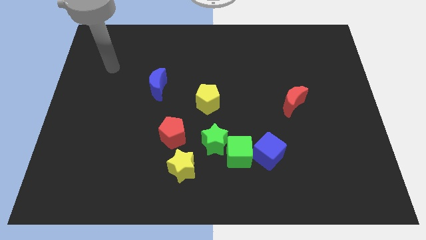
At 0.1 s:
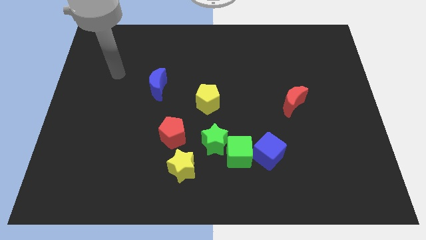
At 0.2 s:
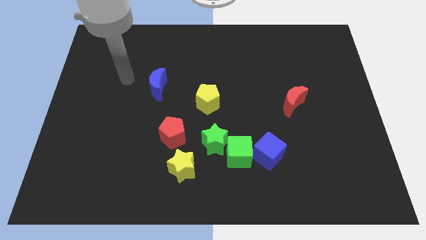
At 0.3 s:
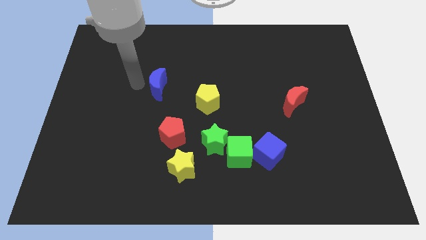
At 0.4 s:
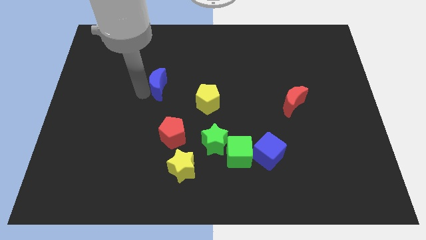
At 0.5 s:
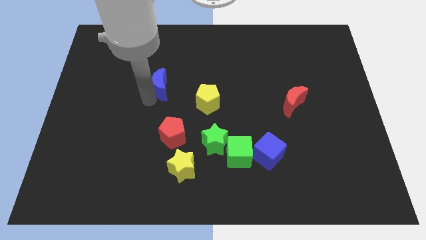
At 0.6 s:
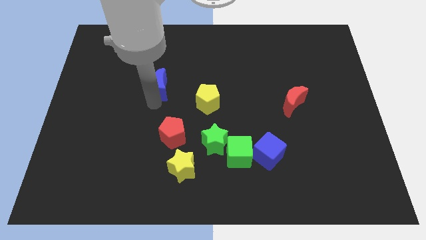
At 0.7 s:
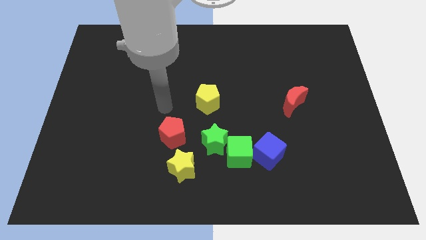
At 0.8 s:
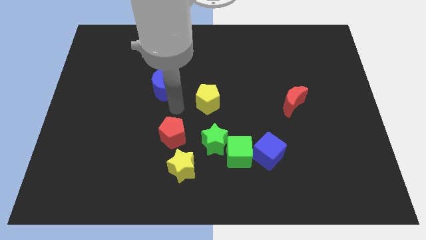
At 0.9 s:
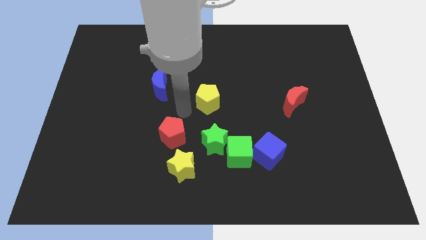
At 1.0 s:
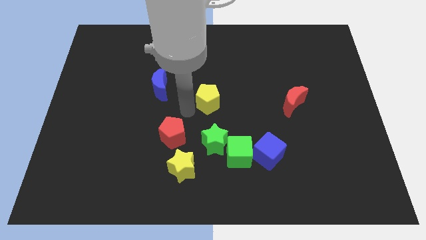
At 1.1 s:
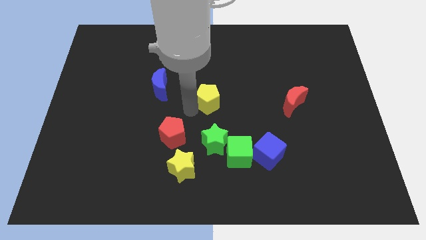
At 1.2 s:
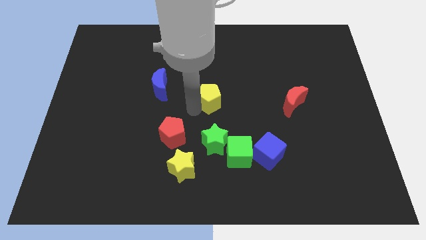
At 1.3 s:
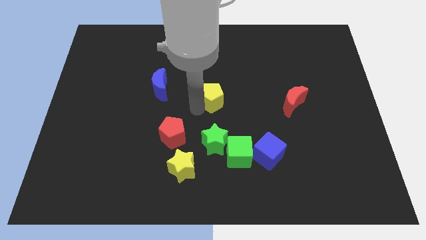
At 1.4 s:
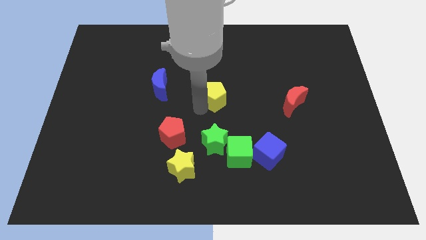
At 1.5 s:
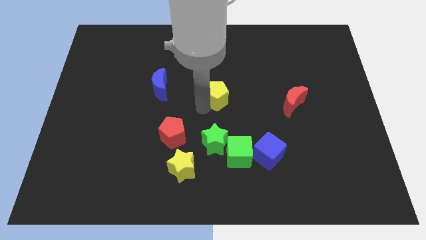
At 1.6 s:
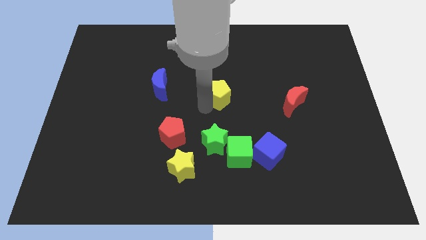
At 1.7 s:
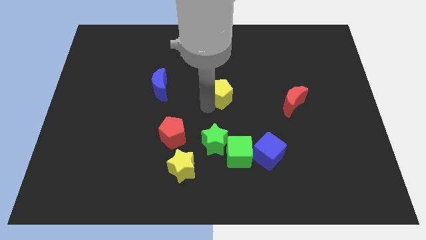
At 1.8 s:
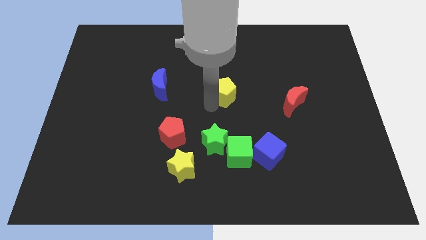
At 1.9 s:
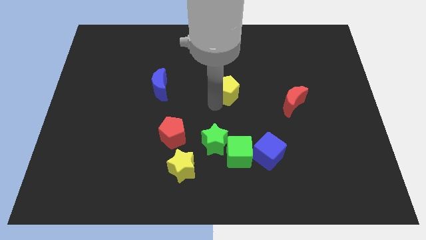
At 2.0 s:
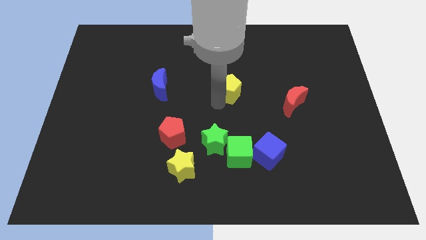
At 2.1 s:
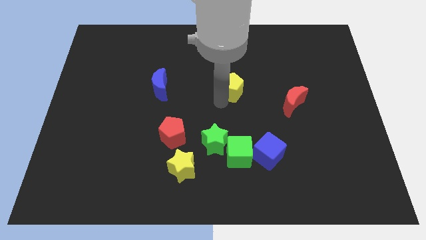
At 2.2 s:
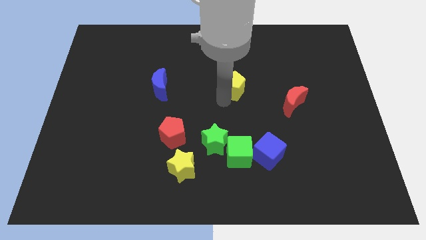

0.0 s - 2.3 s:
slightly push the yellow pentagon up and then right

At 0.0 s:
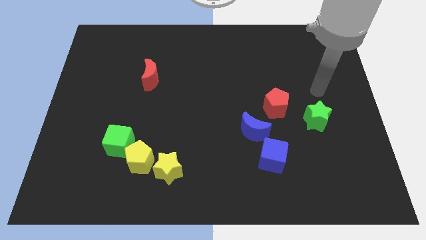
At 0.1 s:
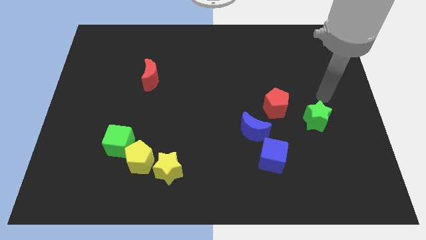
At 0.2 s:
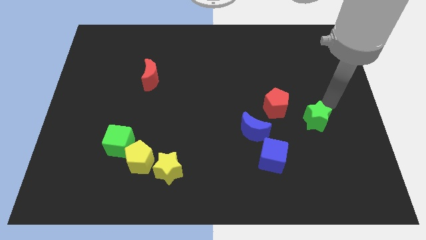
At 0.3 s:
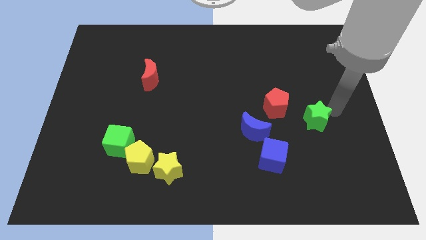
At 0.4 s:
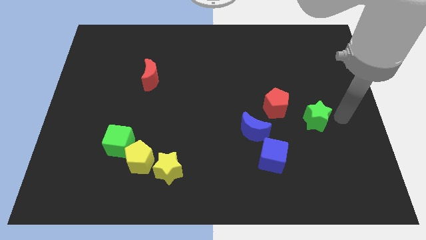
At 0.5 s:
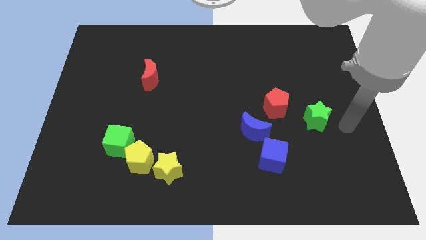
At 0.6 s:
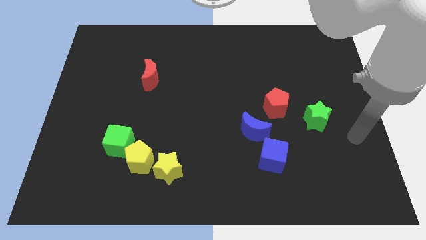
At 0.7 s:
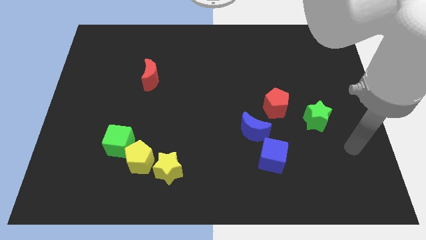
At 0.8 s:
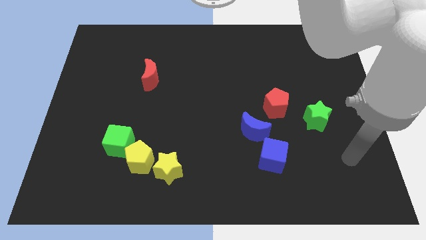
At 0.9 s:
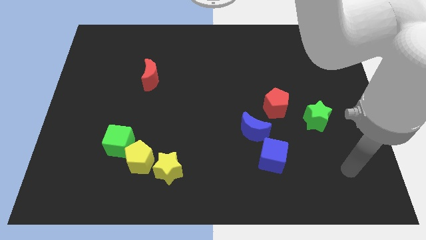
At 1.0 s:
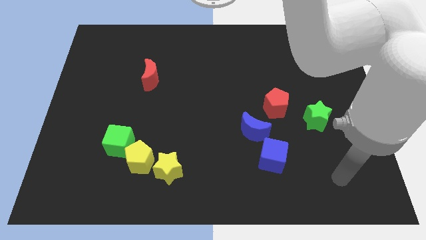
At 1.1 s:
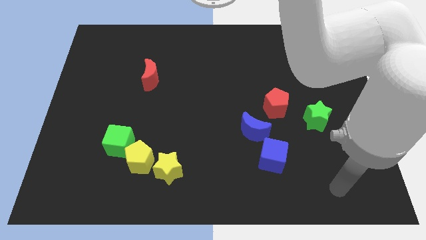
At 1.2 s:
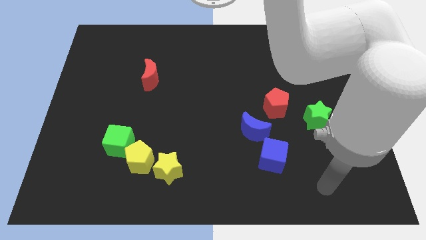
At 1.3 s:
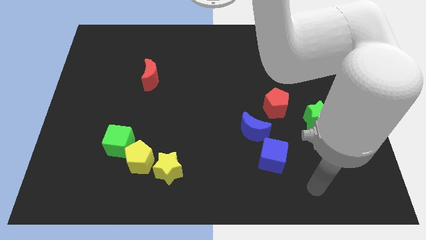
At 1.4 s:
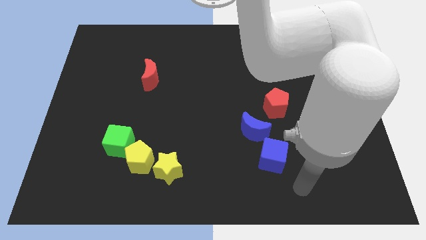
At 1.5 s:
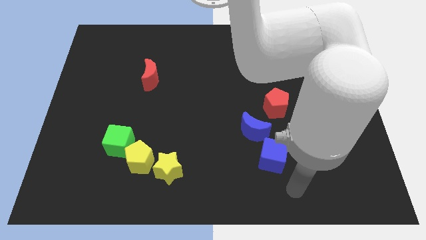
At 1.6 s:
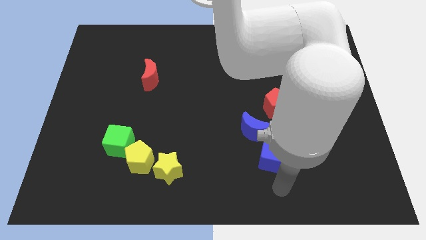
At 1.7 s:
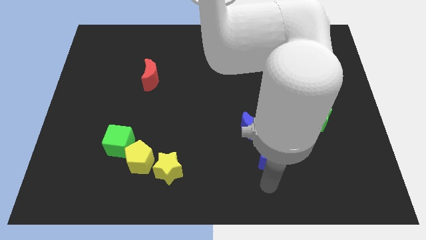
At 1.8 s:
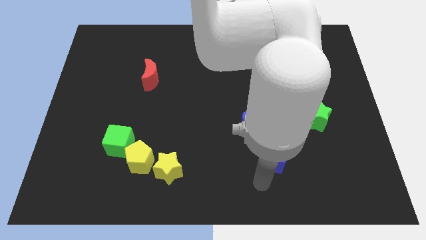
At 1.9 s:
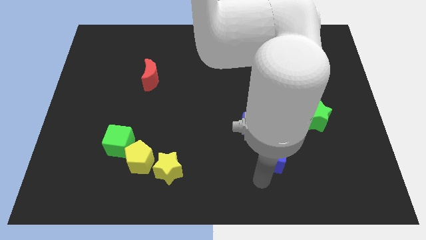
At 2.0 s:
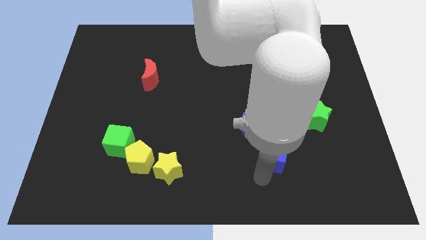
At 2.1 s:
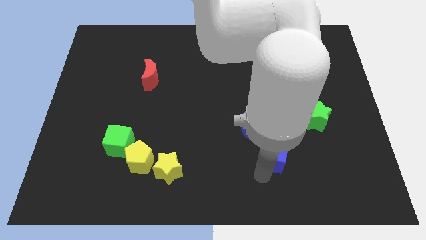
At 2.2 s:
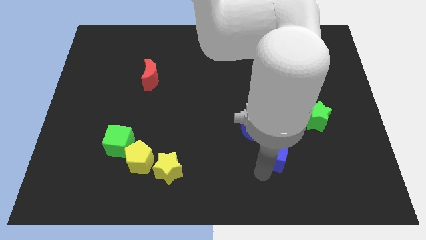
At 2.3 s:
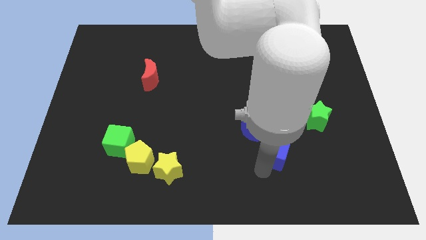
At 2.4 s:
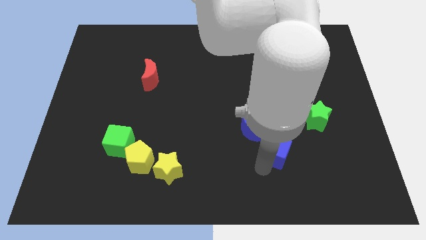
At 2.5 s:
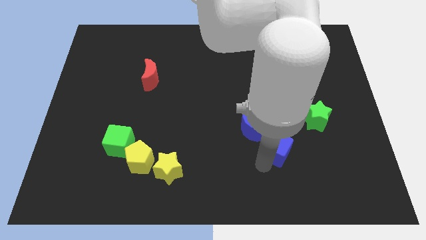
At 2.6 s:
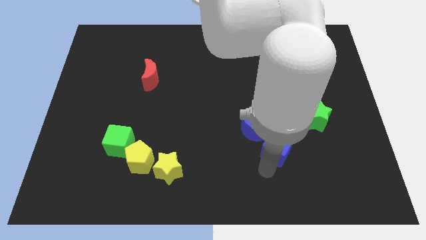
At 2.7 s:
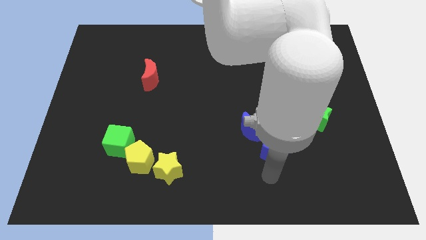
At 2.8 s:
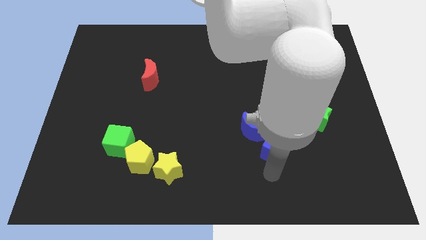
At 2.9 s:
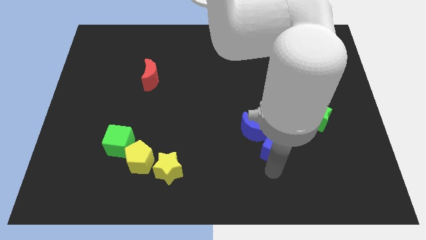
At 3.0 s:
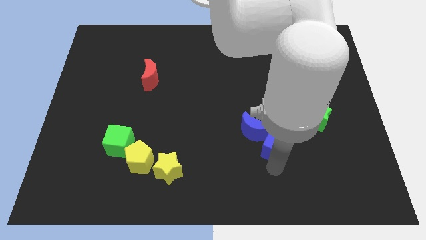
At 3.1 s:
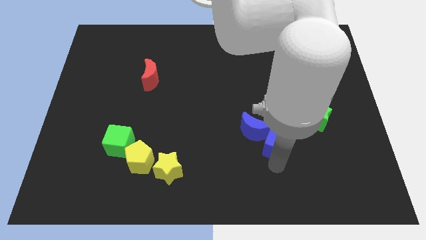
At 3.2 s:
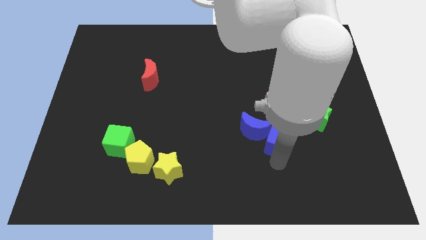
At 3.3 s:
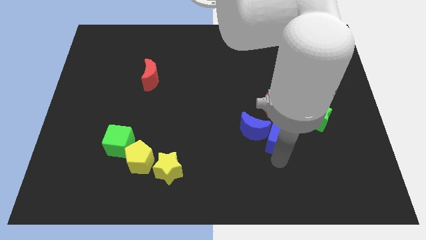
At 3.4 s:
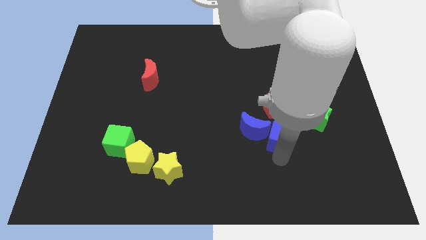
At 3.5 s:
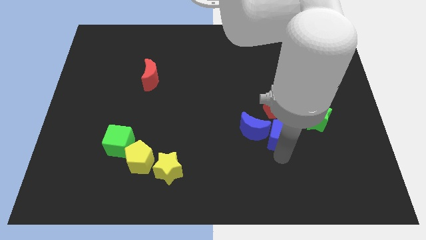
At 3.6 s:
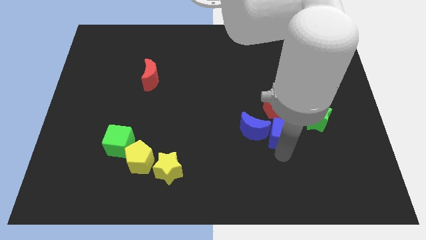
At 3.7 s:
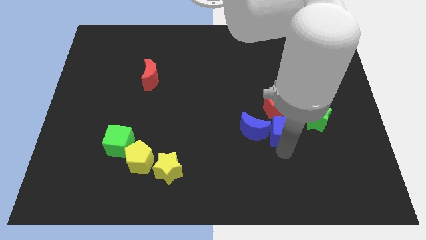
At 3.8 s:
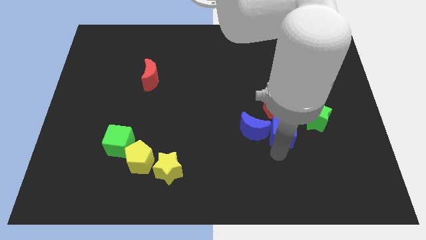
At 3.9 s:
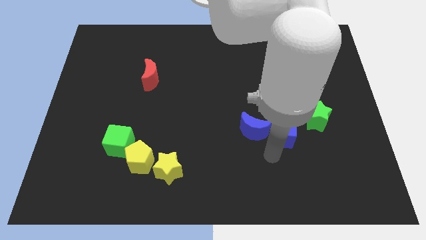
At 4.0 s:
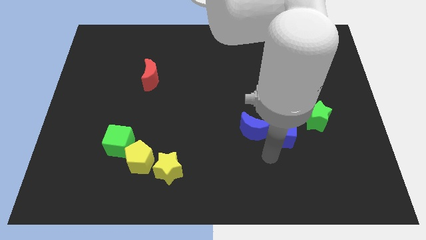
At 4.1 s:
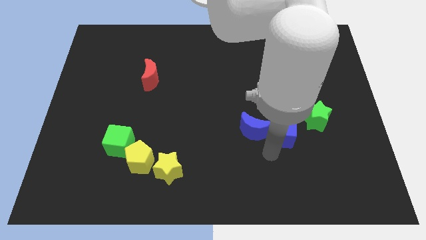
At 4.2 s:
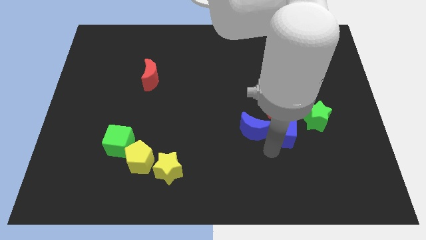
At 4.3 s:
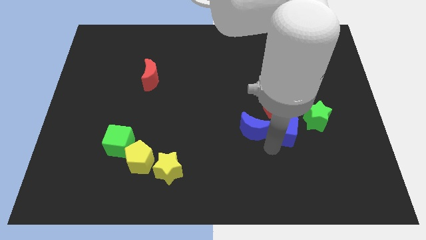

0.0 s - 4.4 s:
slide the blue cube somewhat up and then right

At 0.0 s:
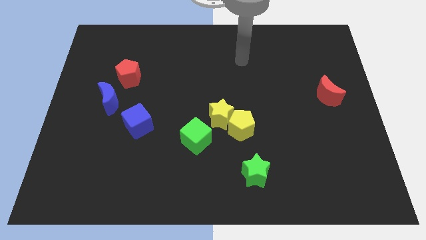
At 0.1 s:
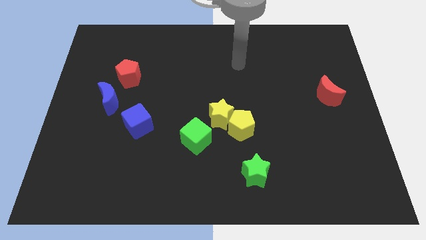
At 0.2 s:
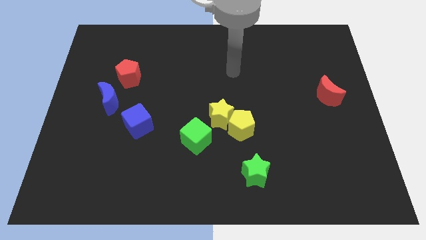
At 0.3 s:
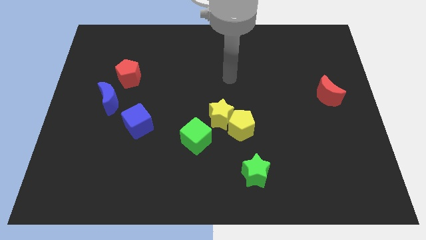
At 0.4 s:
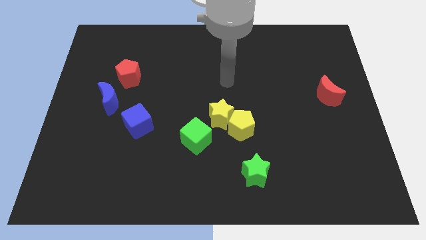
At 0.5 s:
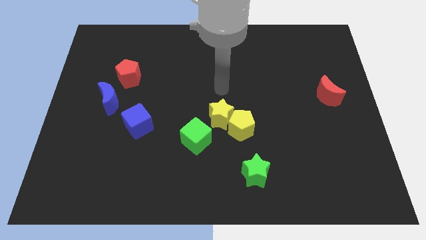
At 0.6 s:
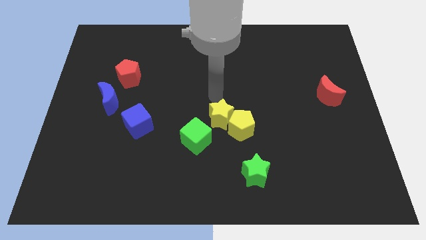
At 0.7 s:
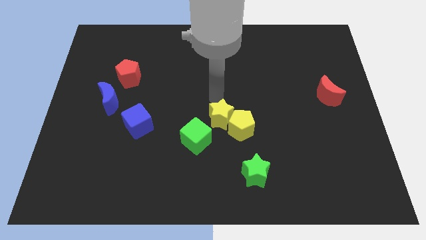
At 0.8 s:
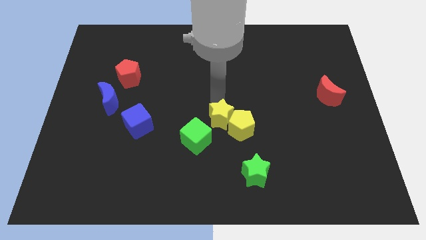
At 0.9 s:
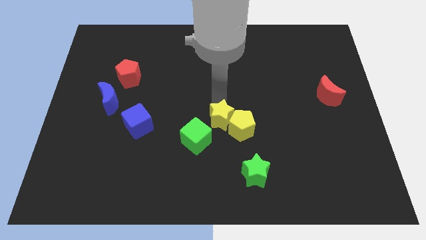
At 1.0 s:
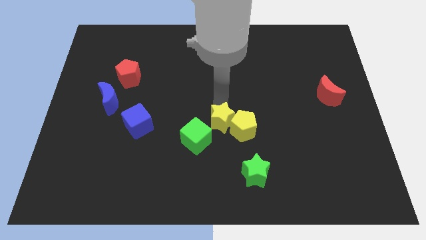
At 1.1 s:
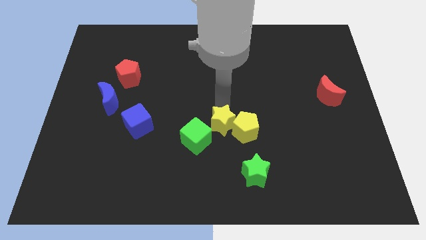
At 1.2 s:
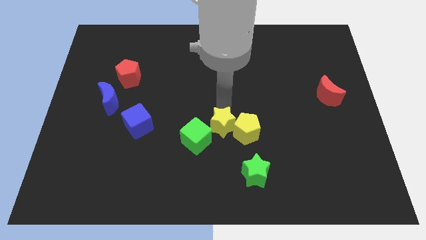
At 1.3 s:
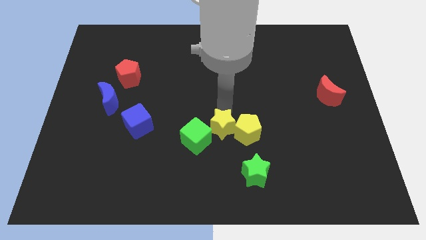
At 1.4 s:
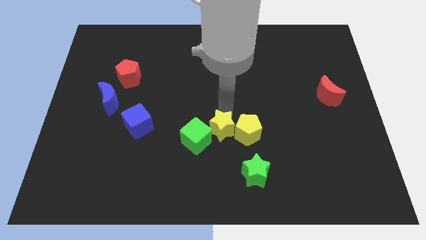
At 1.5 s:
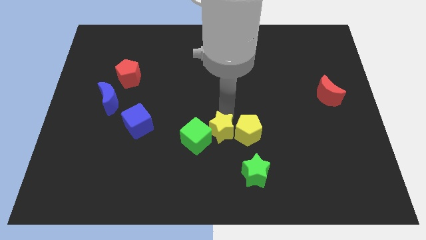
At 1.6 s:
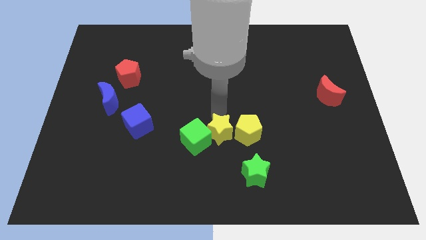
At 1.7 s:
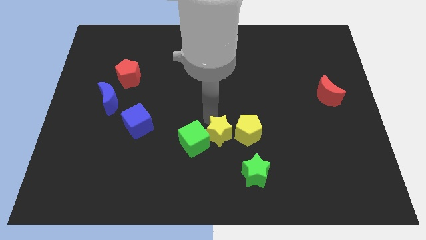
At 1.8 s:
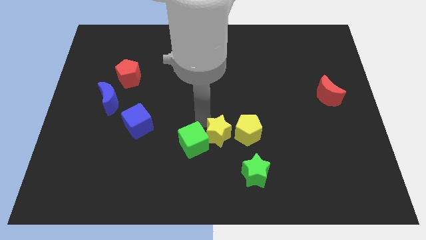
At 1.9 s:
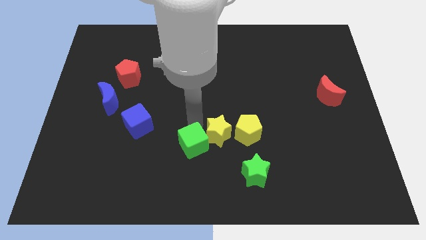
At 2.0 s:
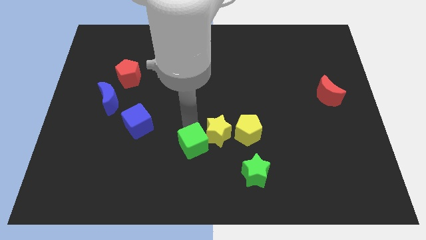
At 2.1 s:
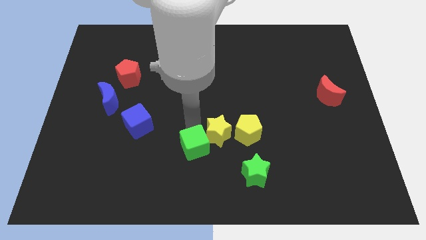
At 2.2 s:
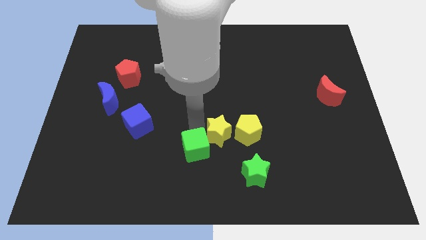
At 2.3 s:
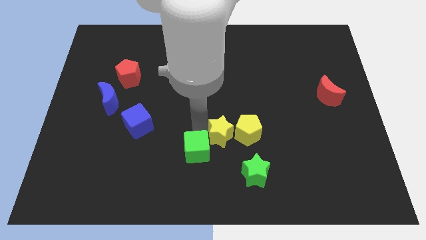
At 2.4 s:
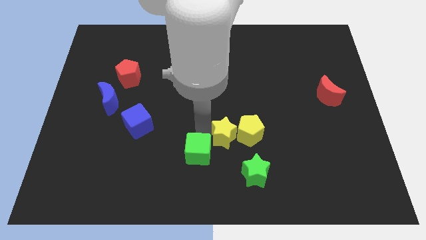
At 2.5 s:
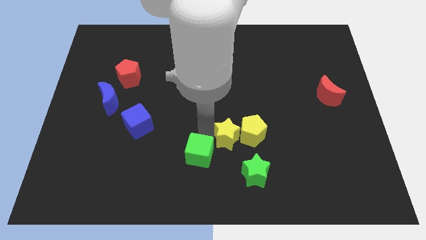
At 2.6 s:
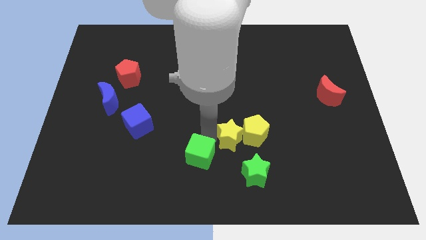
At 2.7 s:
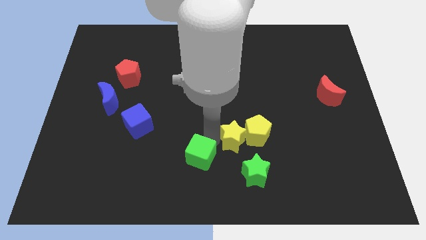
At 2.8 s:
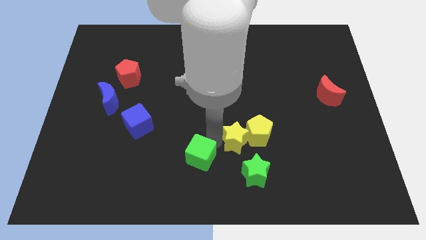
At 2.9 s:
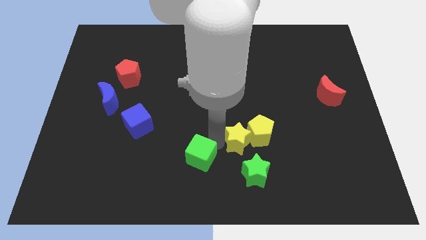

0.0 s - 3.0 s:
slide the yellow star a bit down and then right
